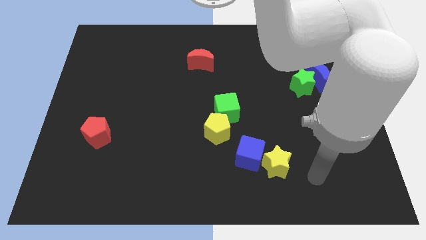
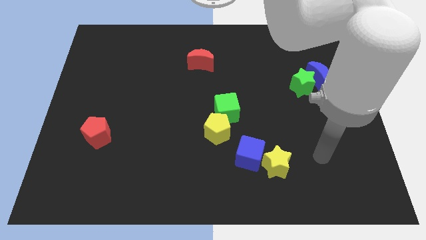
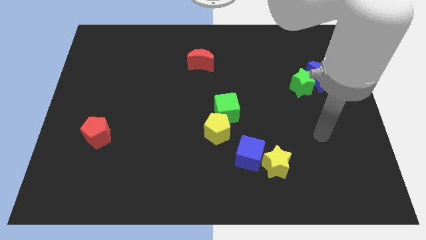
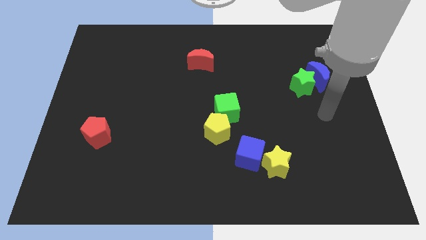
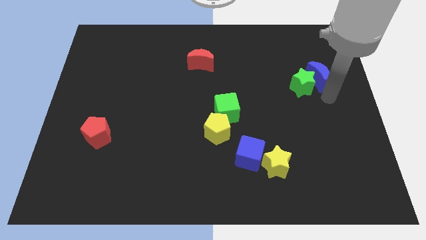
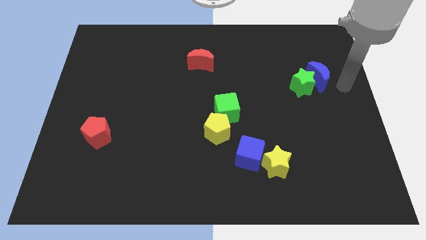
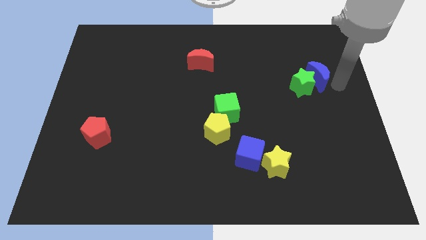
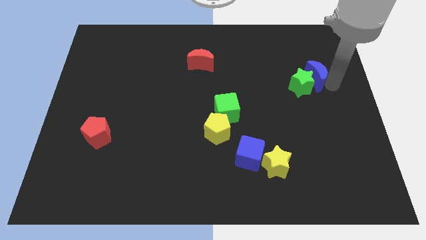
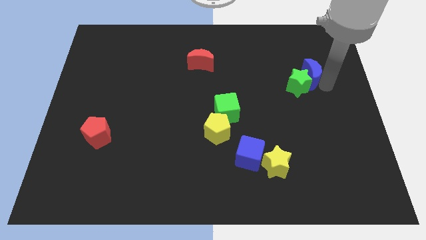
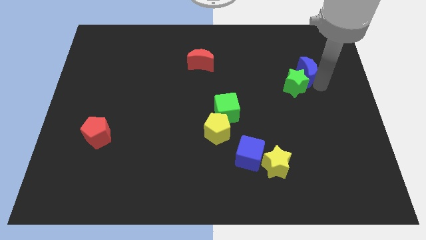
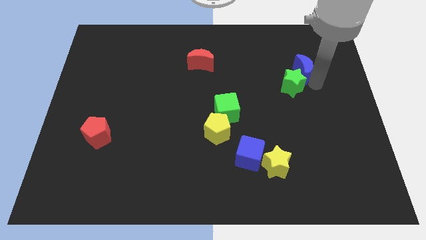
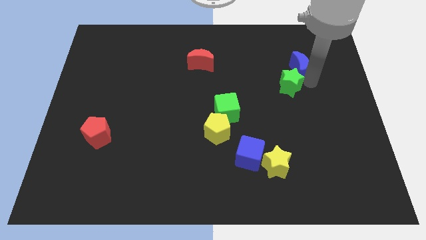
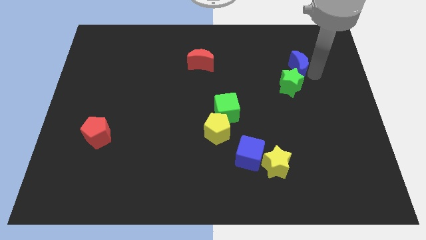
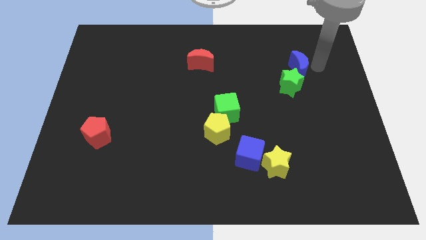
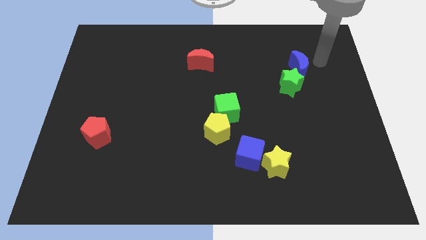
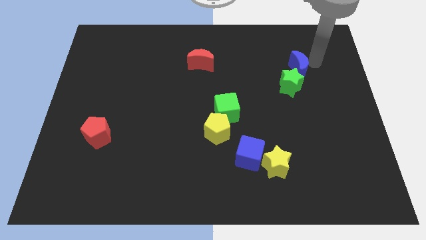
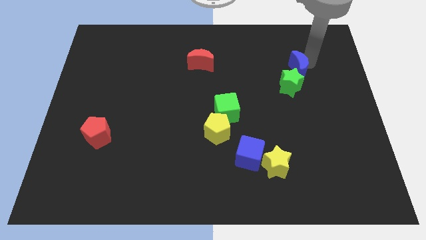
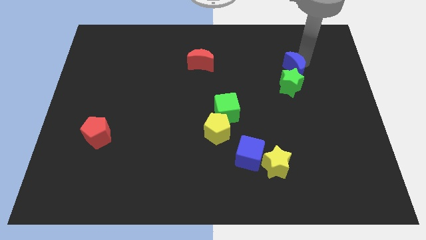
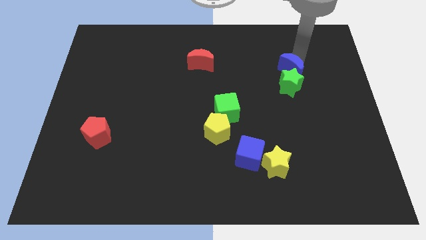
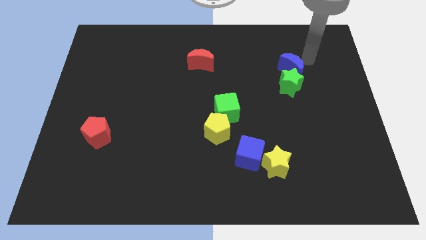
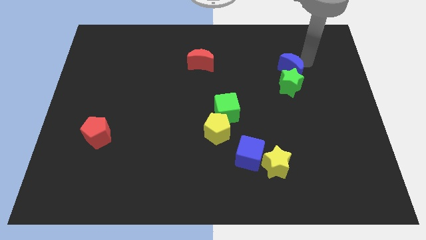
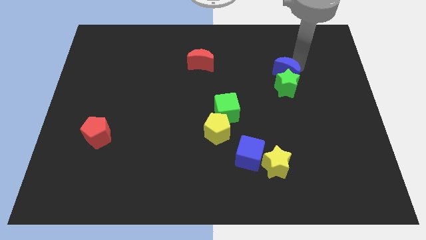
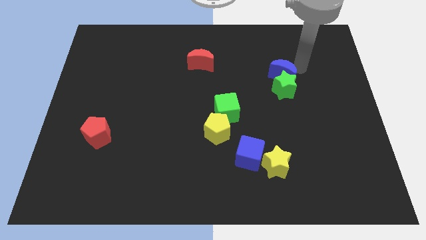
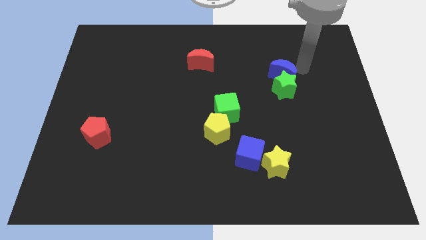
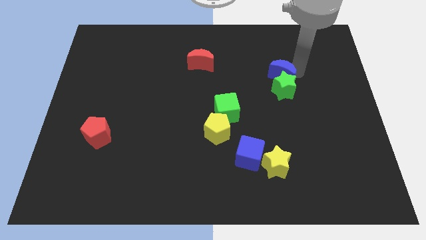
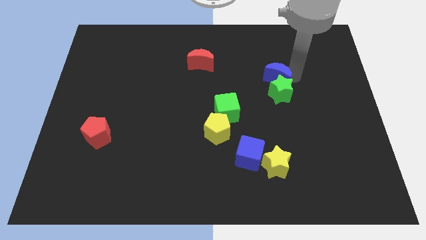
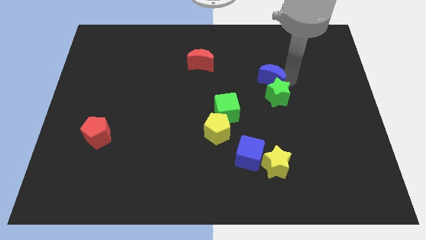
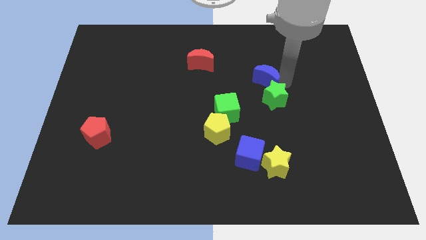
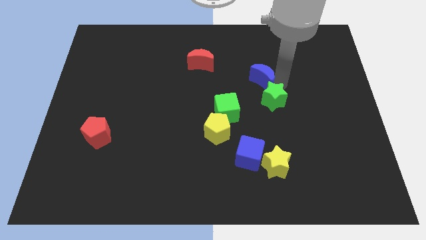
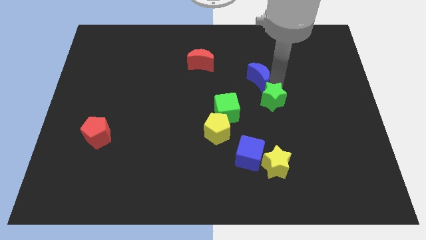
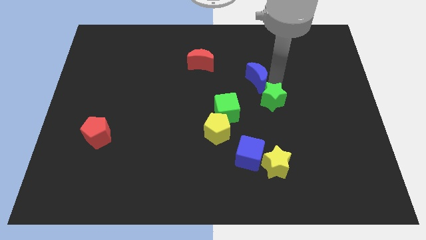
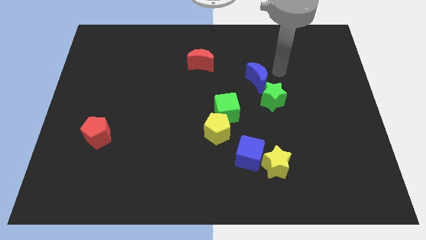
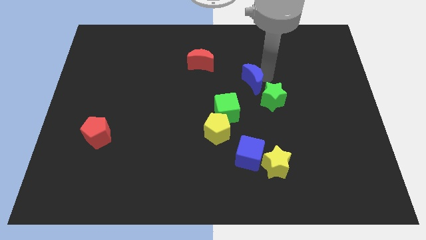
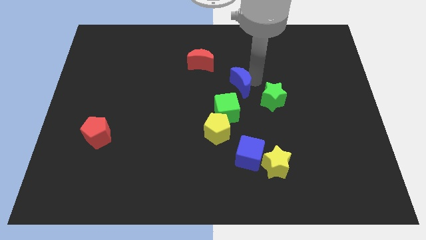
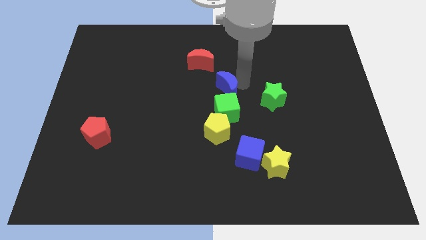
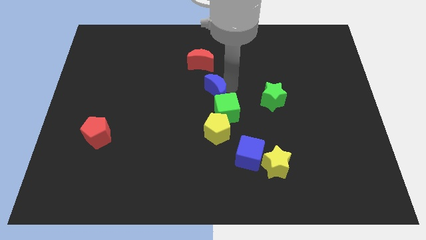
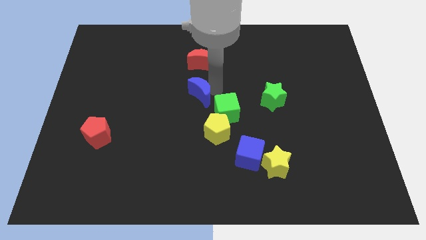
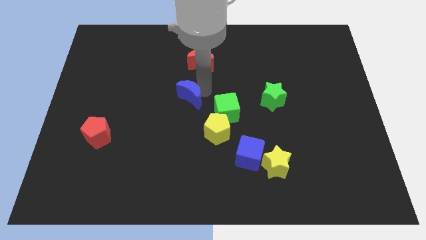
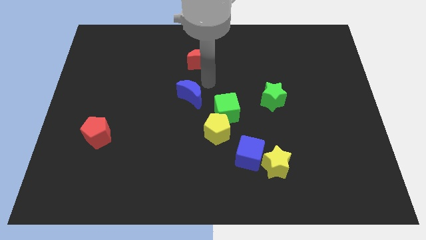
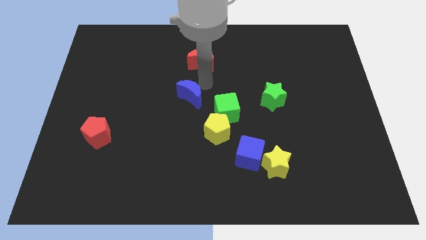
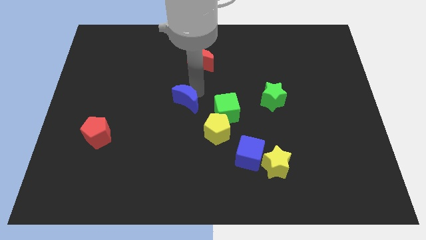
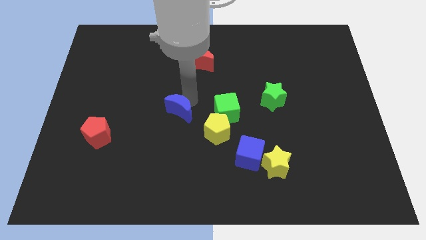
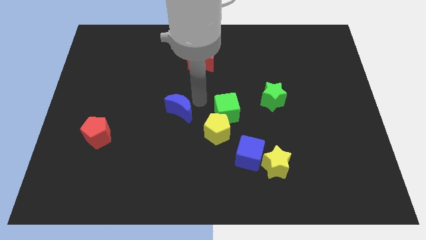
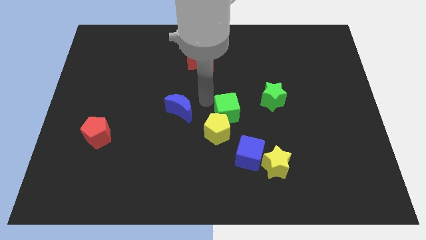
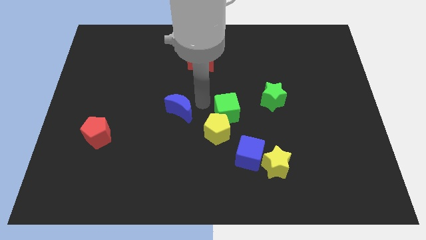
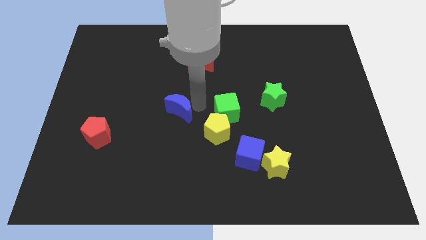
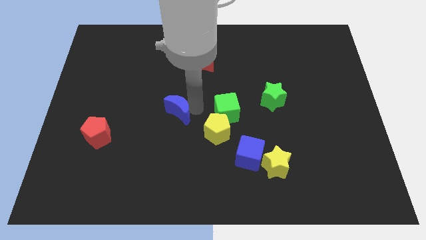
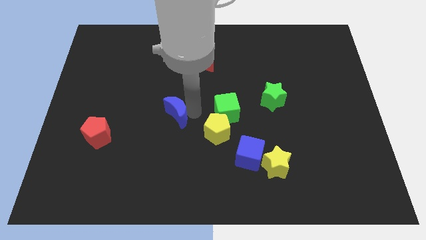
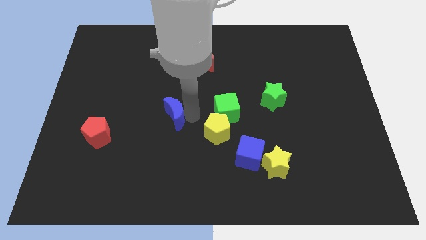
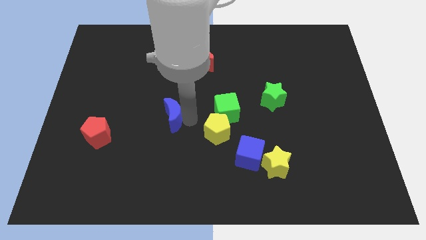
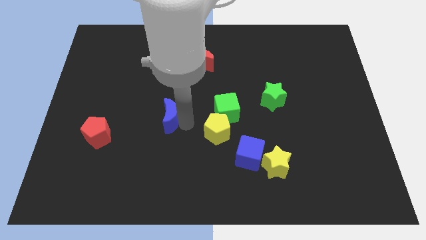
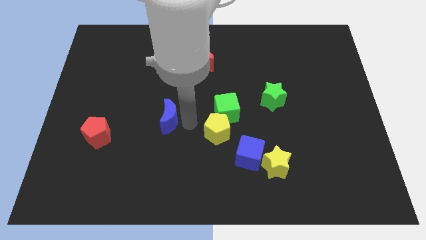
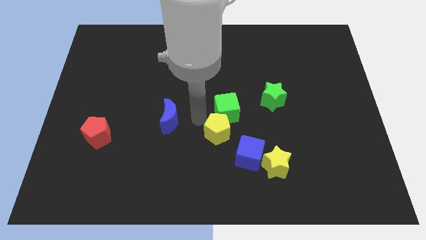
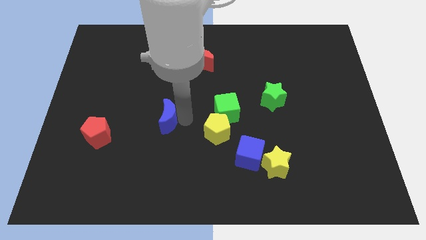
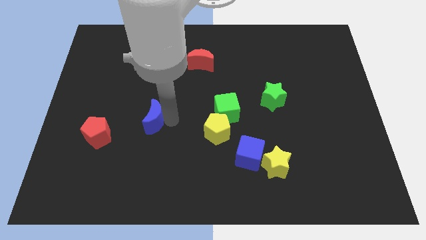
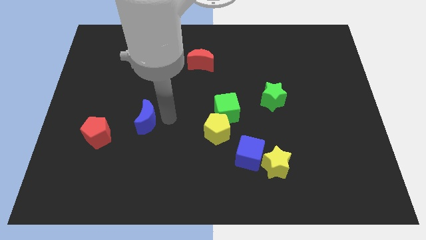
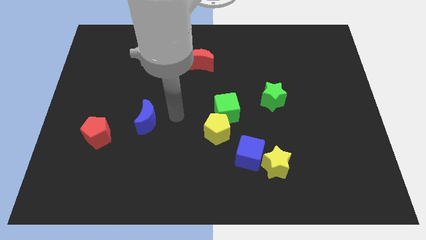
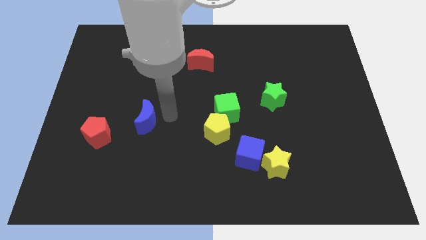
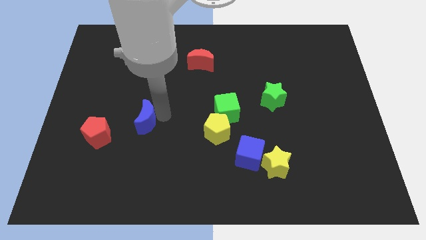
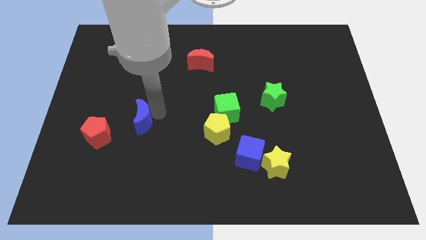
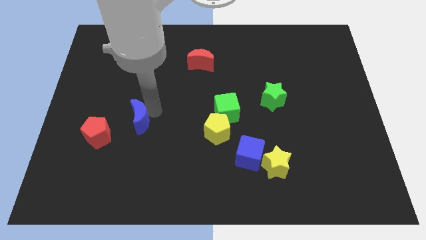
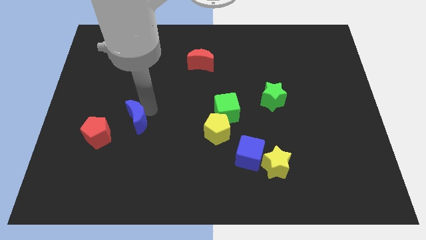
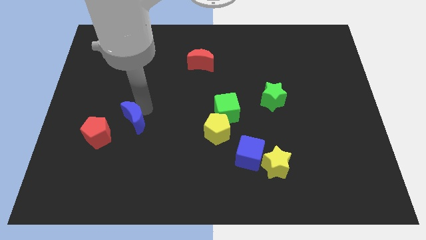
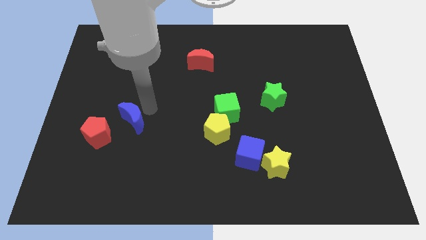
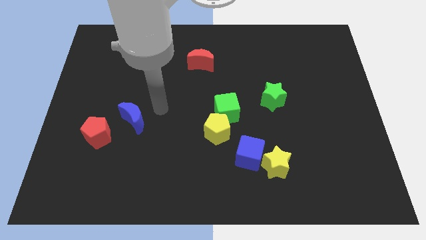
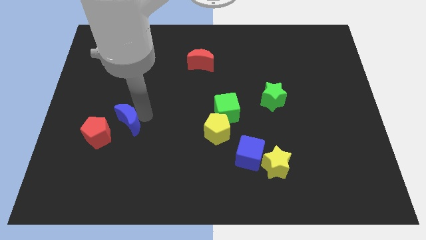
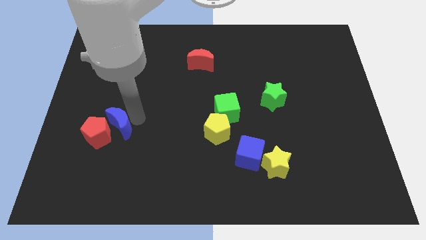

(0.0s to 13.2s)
push the blue moon close to the red pentagon

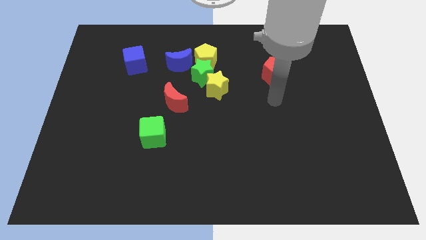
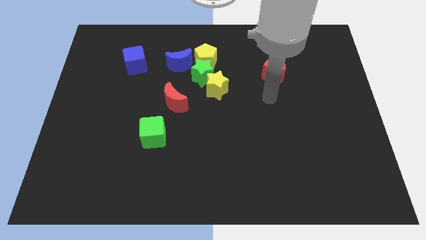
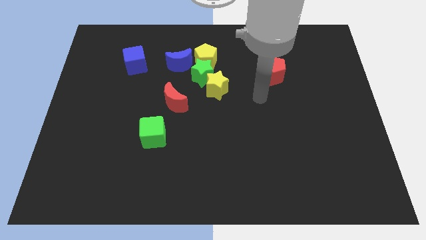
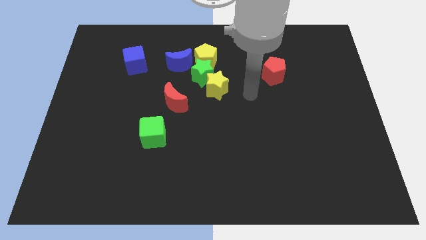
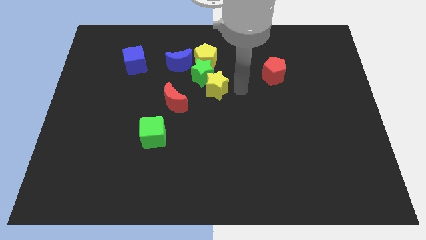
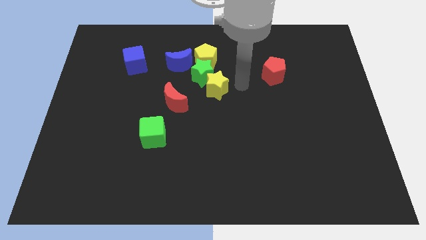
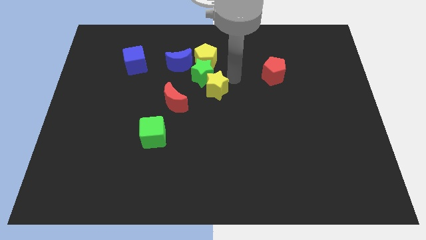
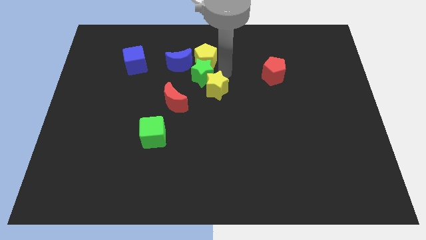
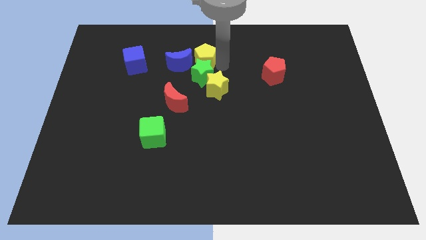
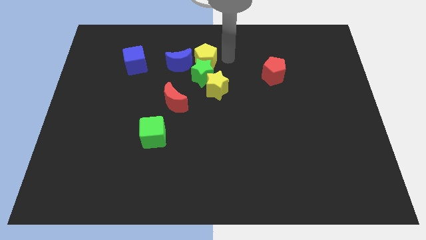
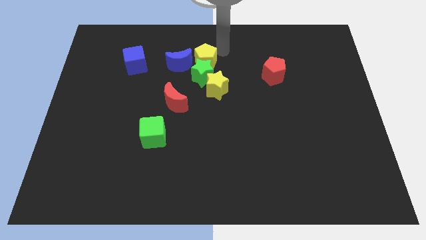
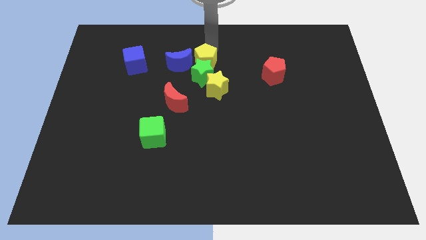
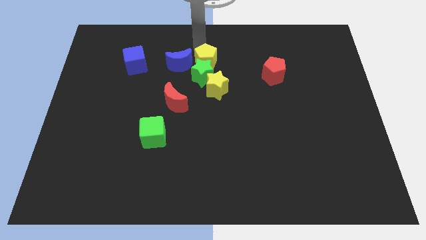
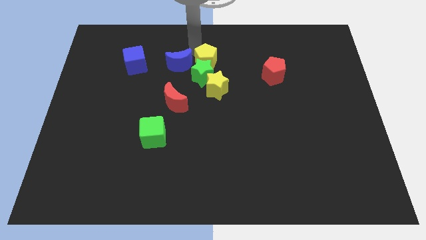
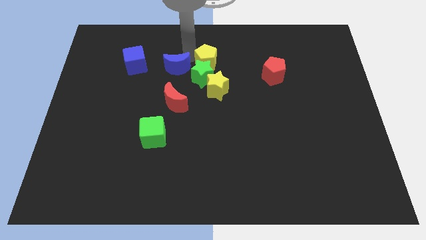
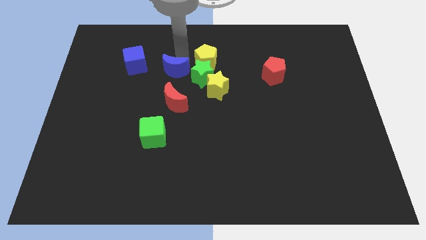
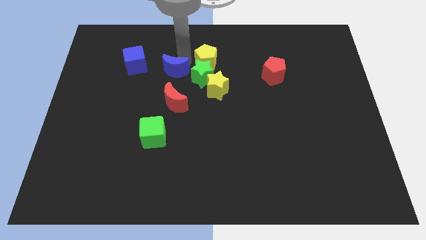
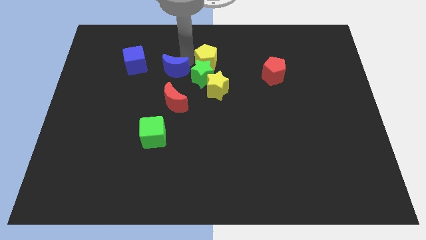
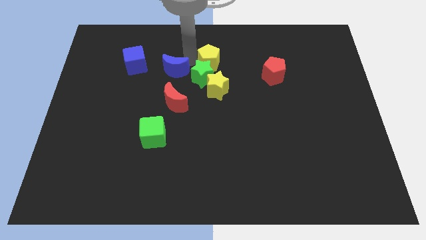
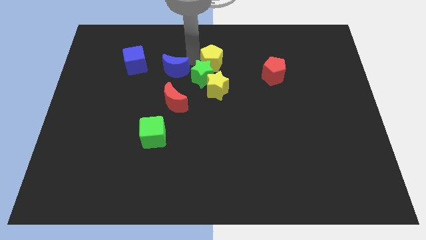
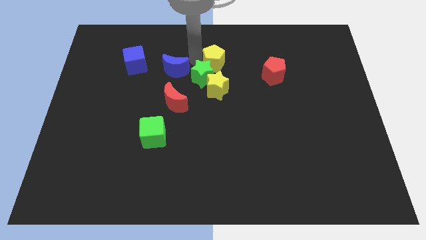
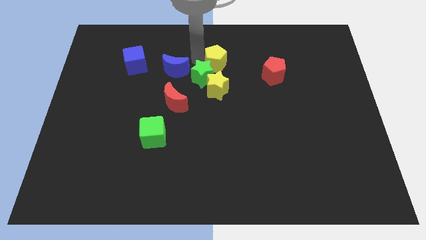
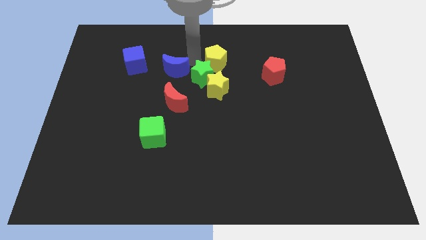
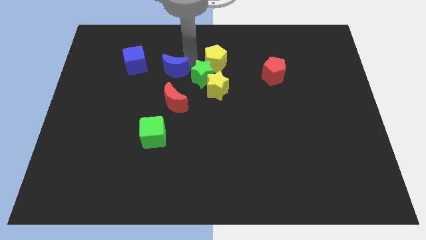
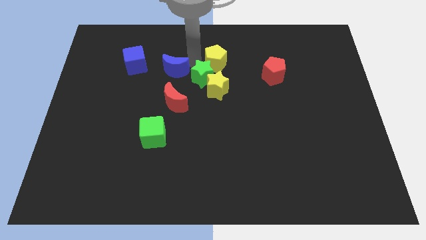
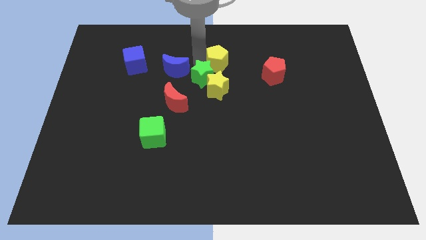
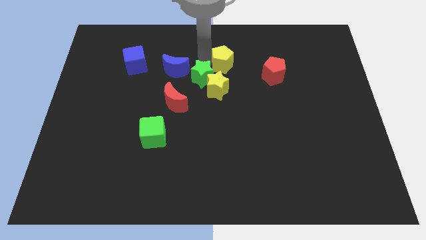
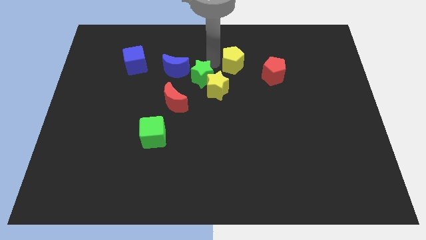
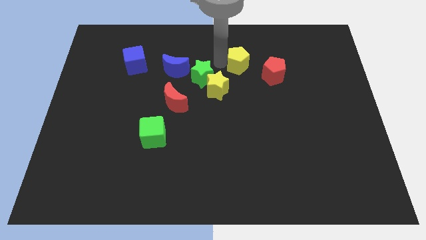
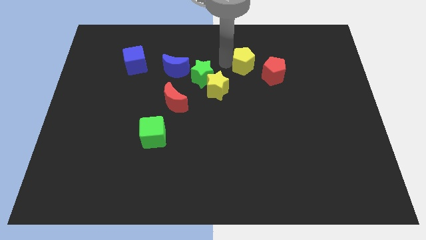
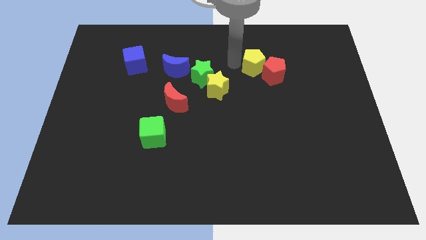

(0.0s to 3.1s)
slide the yellow pentagon to the red pentagon
